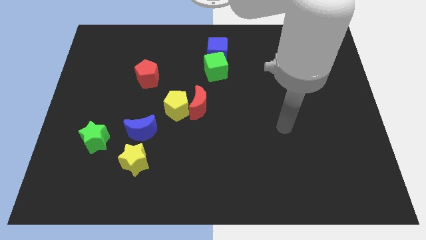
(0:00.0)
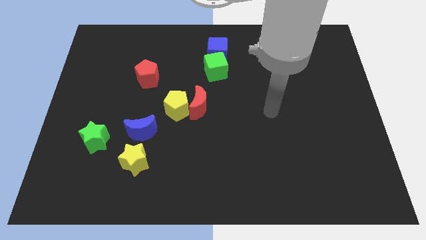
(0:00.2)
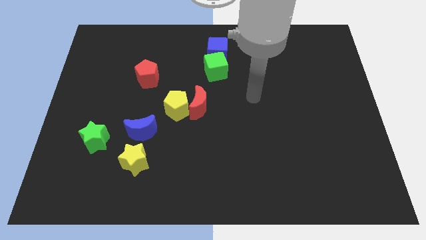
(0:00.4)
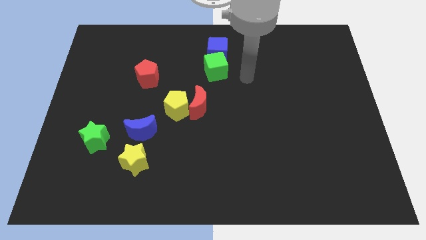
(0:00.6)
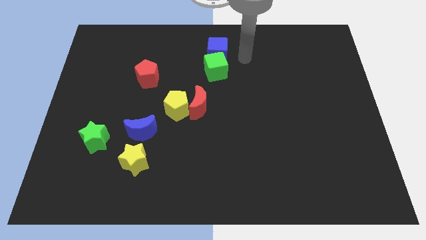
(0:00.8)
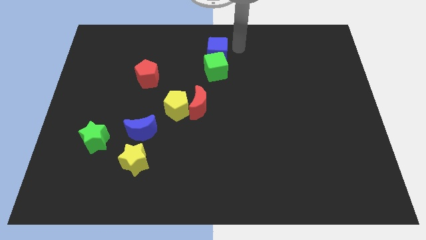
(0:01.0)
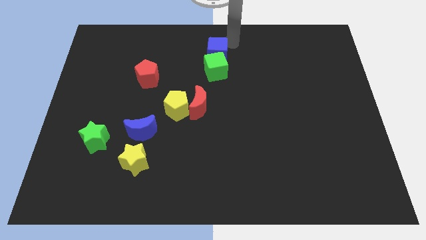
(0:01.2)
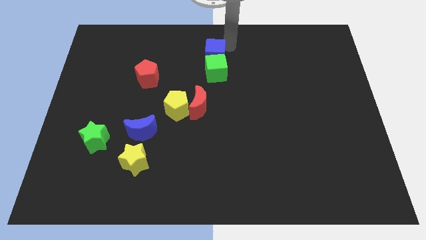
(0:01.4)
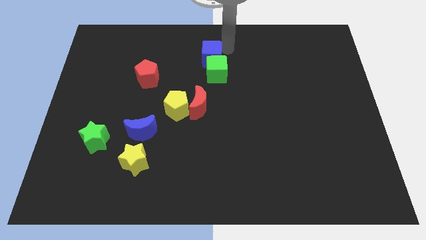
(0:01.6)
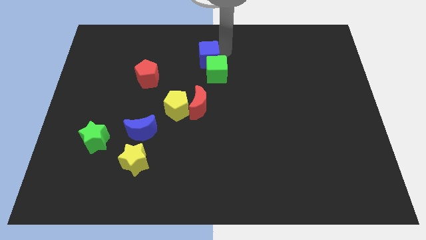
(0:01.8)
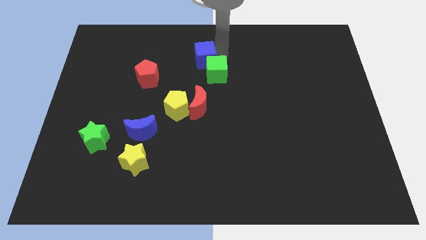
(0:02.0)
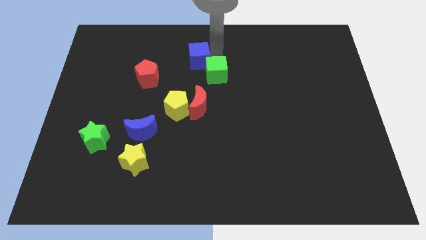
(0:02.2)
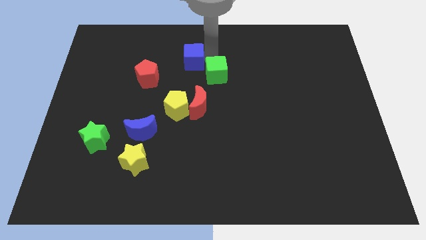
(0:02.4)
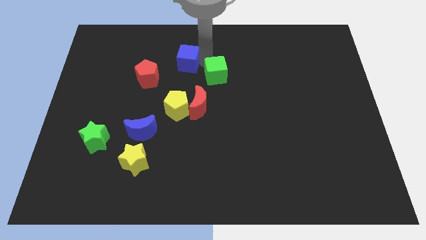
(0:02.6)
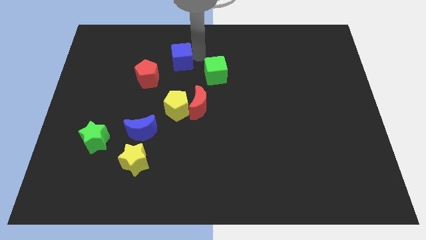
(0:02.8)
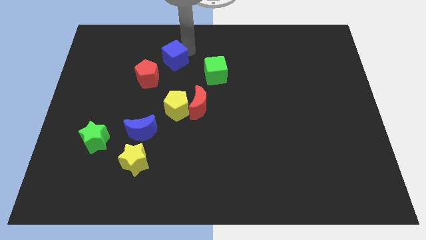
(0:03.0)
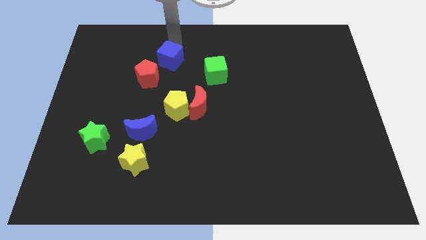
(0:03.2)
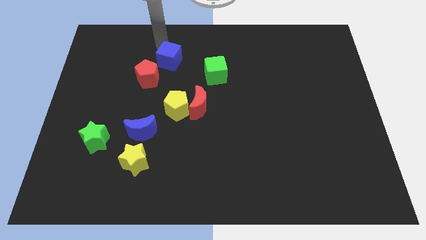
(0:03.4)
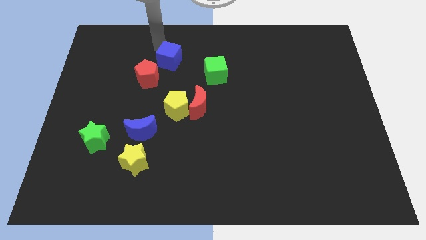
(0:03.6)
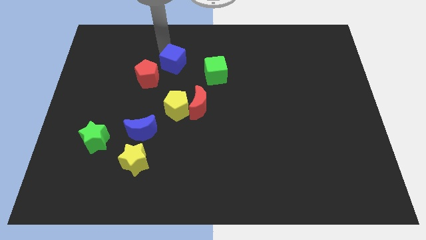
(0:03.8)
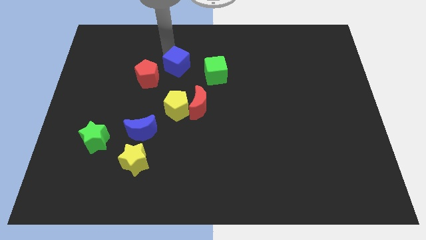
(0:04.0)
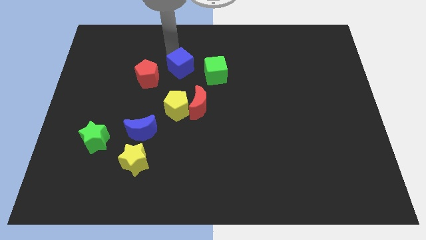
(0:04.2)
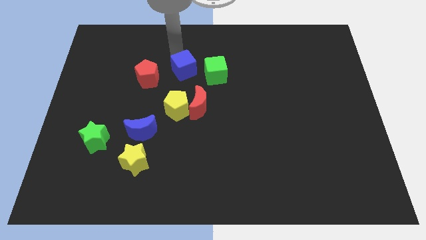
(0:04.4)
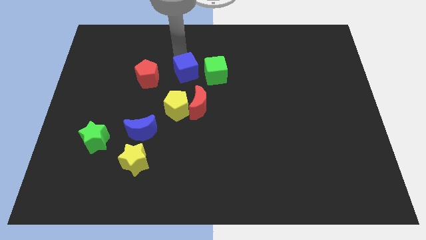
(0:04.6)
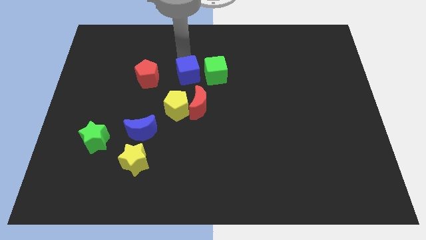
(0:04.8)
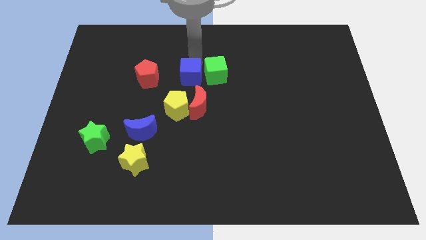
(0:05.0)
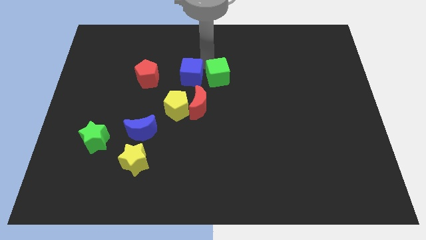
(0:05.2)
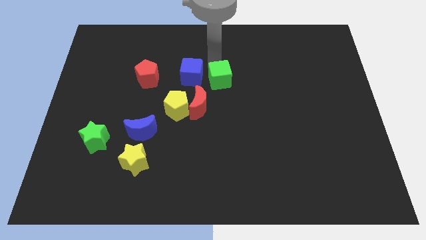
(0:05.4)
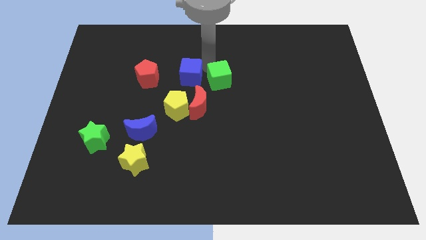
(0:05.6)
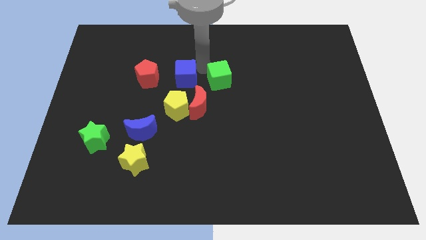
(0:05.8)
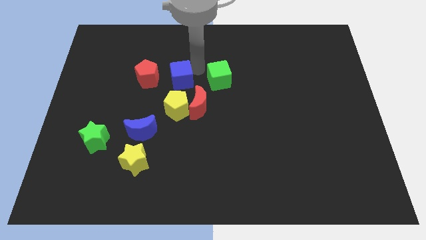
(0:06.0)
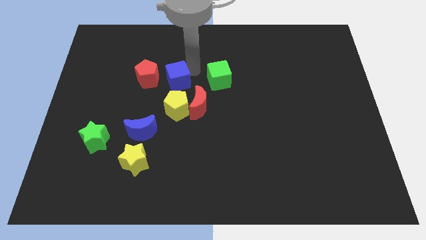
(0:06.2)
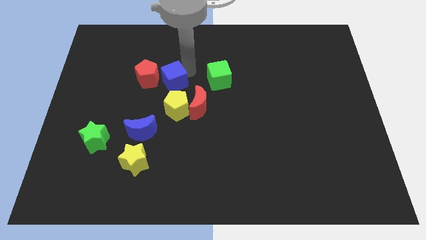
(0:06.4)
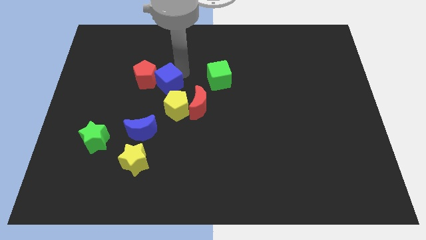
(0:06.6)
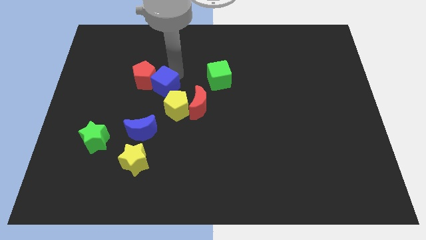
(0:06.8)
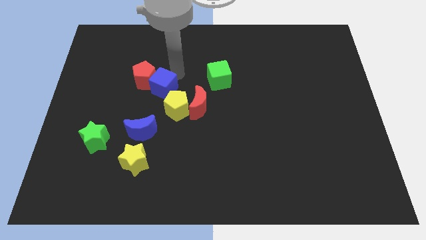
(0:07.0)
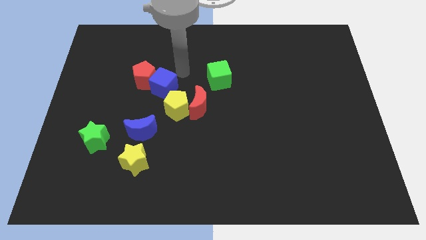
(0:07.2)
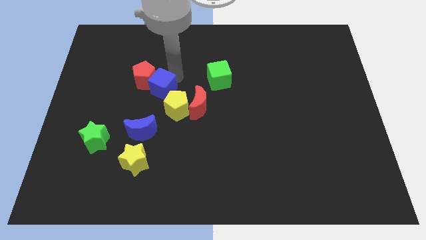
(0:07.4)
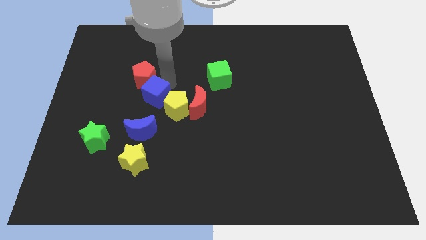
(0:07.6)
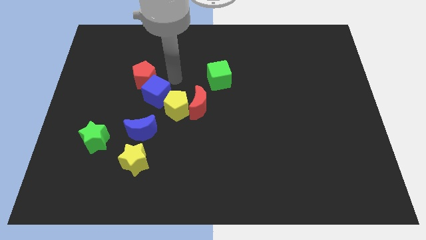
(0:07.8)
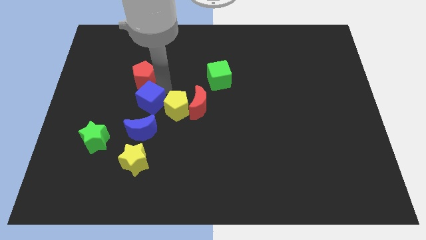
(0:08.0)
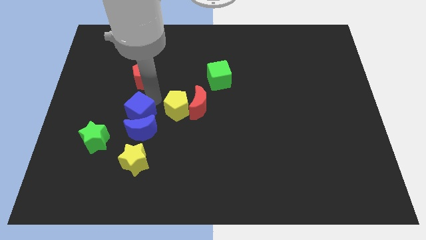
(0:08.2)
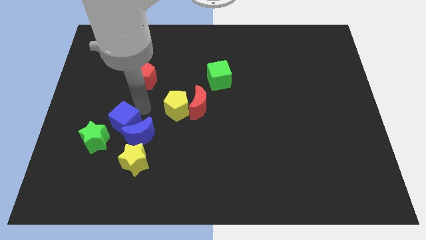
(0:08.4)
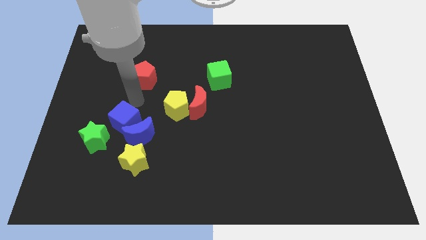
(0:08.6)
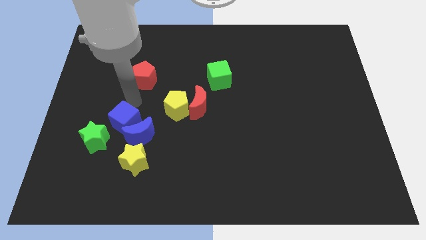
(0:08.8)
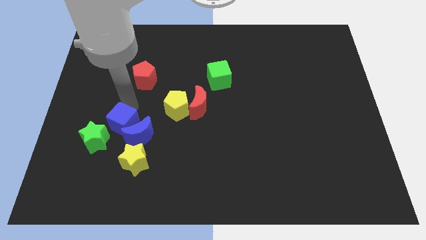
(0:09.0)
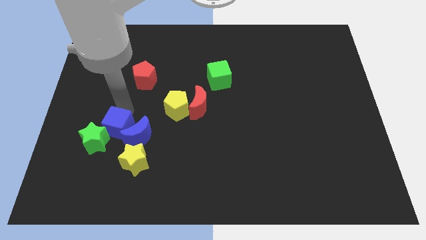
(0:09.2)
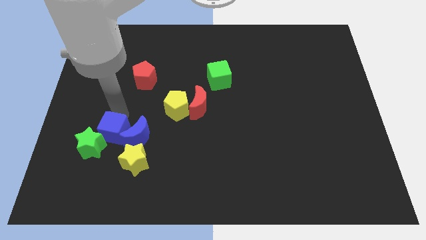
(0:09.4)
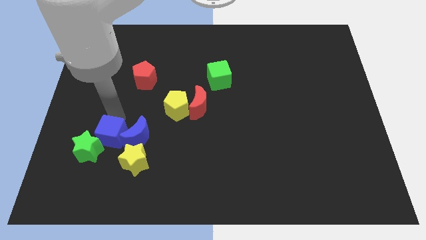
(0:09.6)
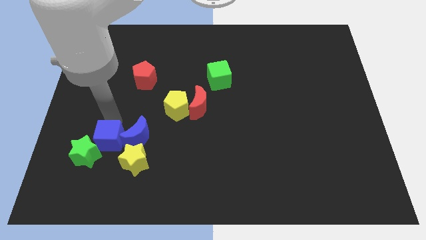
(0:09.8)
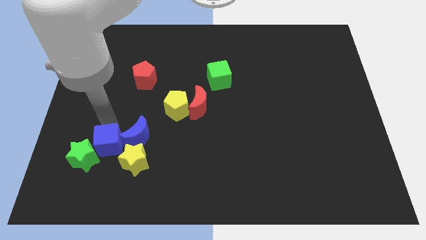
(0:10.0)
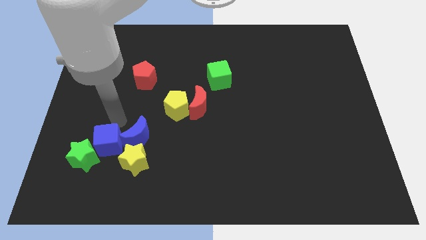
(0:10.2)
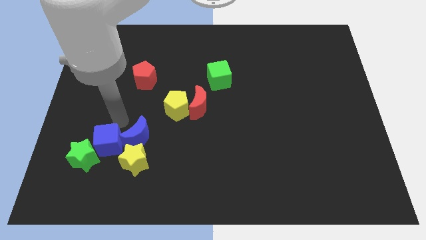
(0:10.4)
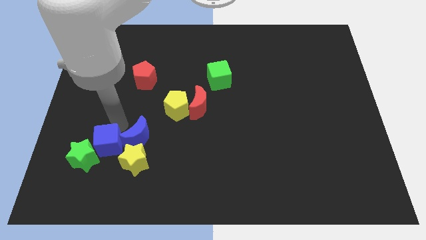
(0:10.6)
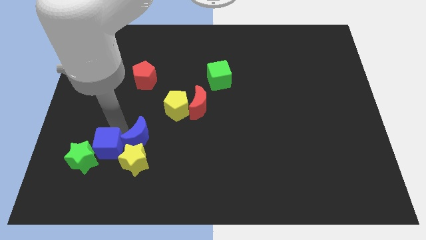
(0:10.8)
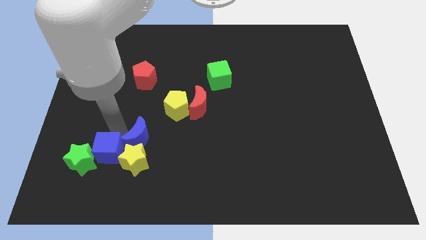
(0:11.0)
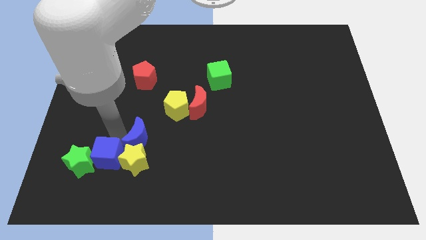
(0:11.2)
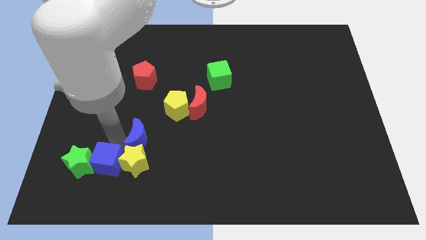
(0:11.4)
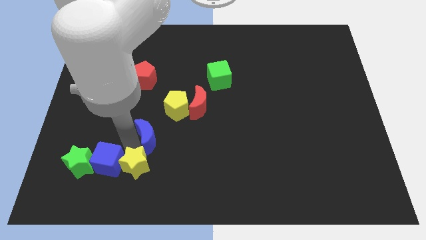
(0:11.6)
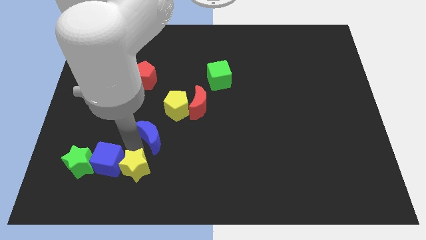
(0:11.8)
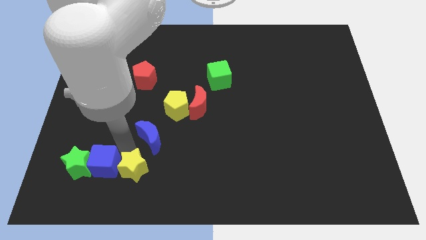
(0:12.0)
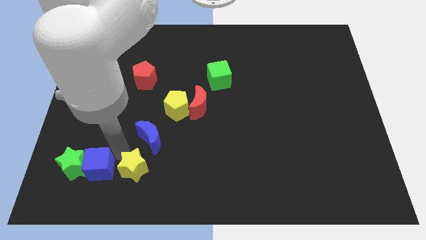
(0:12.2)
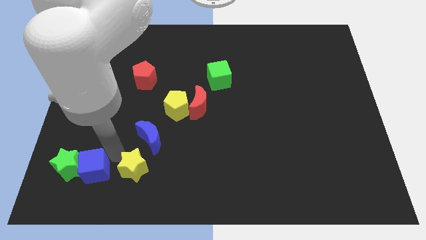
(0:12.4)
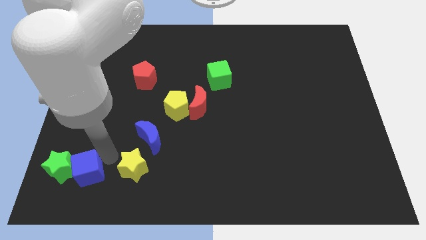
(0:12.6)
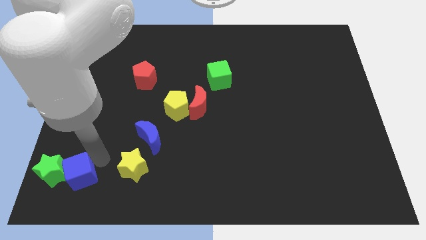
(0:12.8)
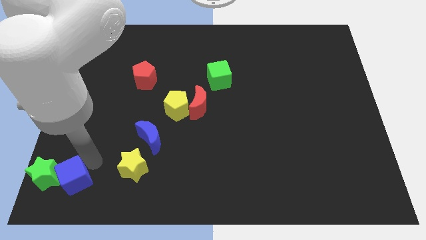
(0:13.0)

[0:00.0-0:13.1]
put the blue cube to the lower left corner

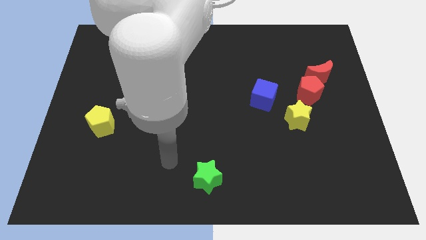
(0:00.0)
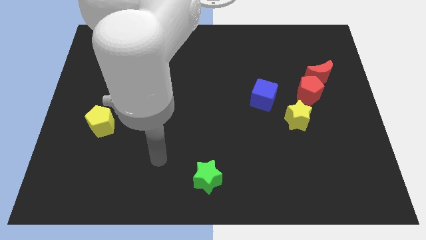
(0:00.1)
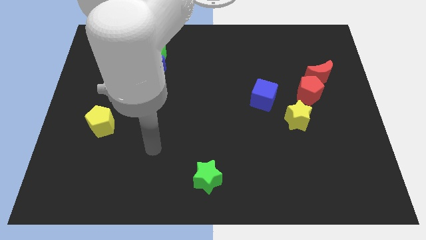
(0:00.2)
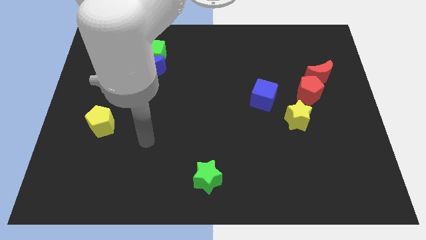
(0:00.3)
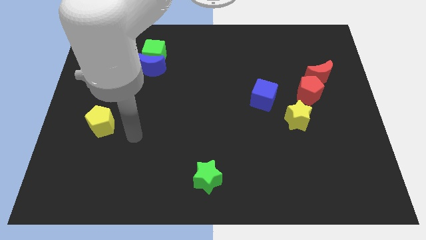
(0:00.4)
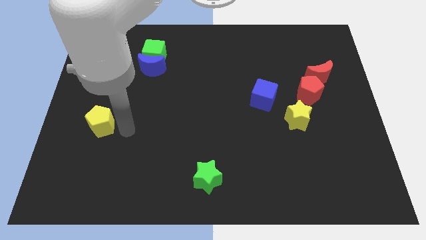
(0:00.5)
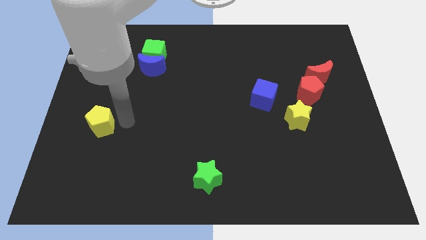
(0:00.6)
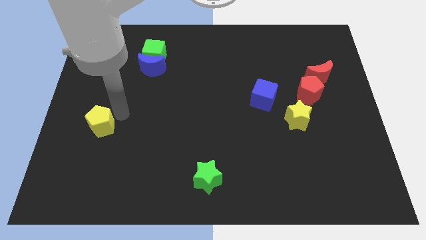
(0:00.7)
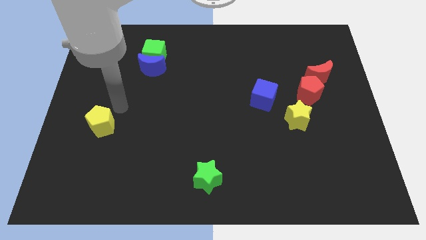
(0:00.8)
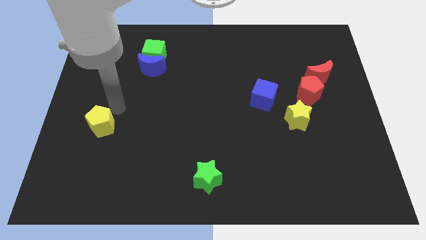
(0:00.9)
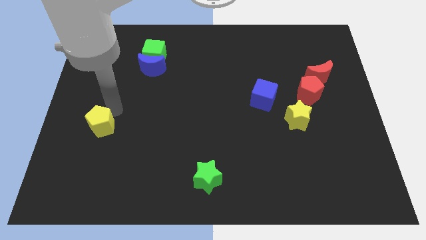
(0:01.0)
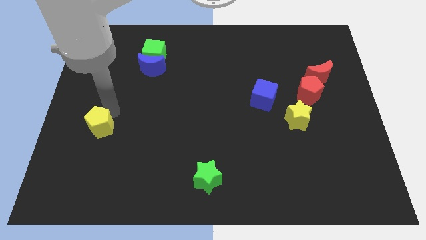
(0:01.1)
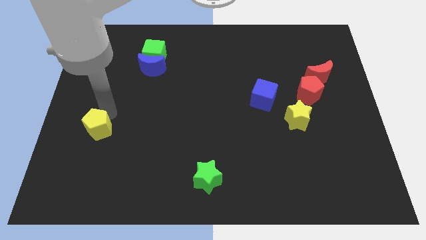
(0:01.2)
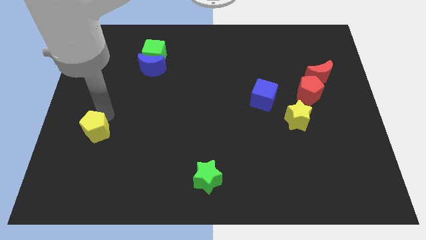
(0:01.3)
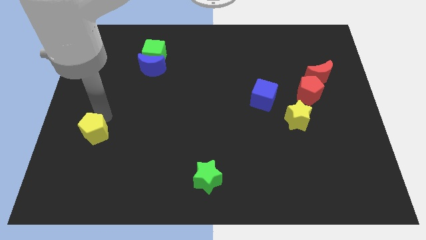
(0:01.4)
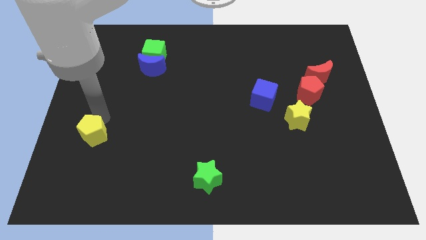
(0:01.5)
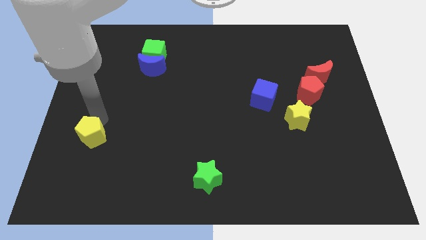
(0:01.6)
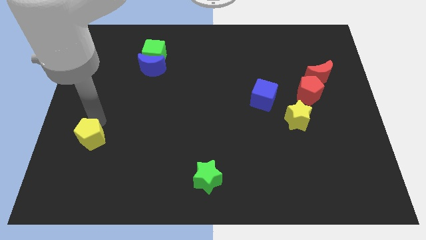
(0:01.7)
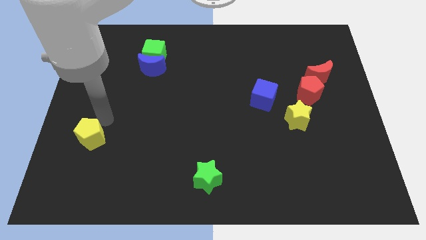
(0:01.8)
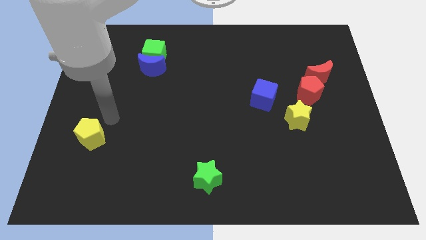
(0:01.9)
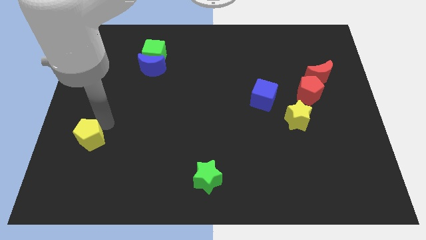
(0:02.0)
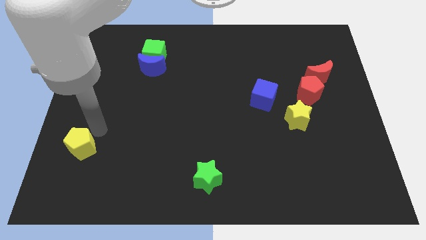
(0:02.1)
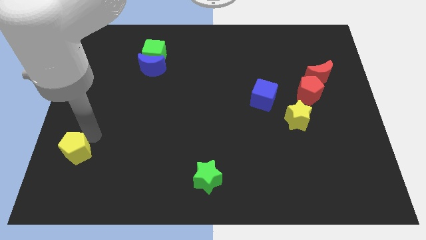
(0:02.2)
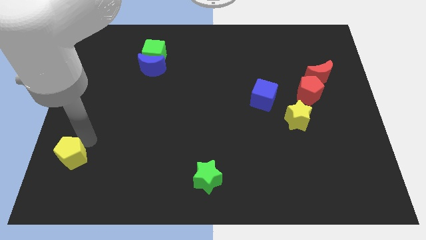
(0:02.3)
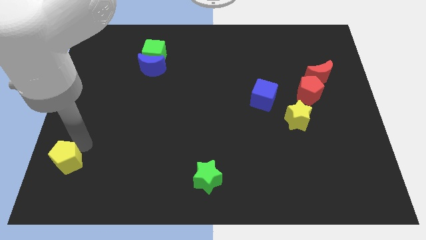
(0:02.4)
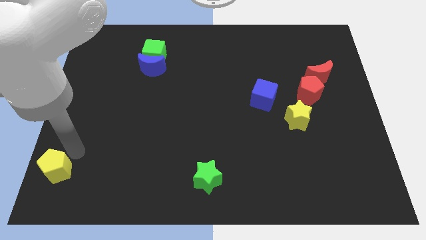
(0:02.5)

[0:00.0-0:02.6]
move the yellow pentagon to the bottom left of the board
